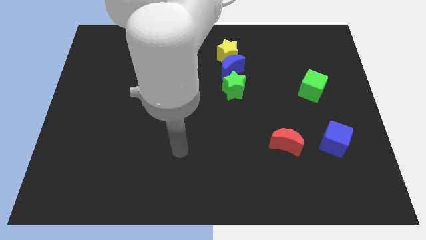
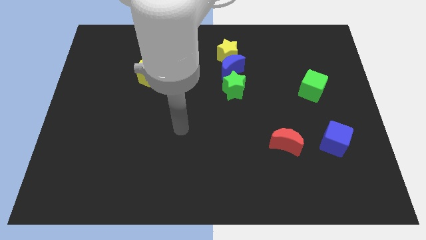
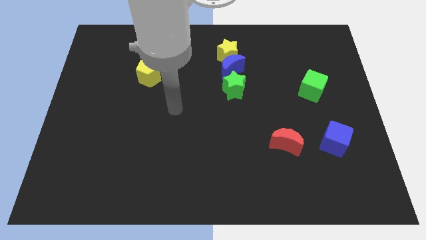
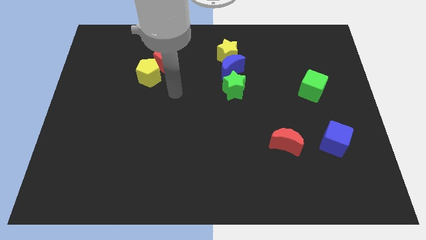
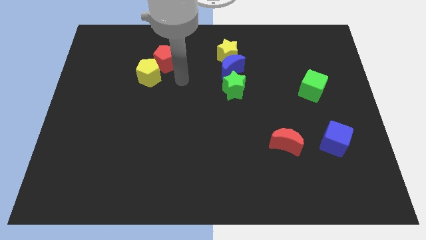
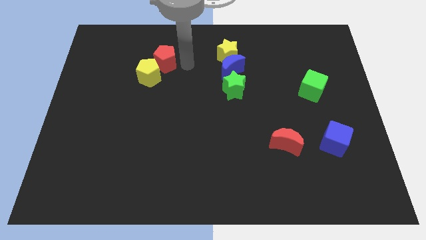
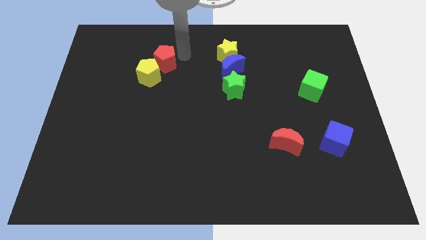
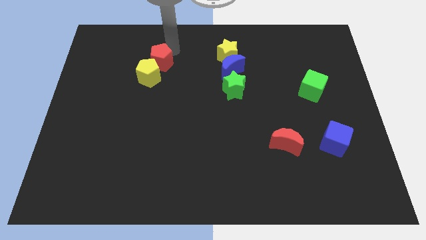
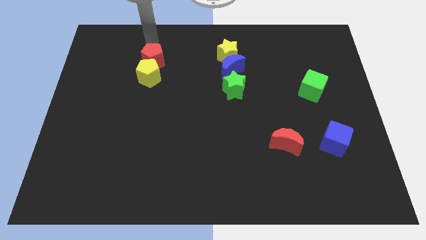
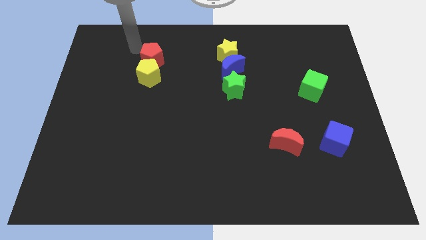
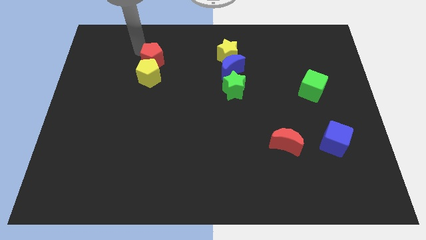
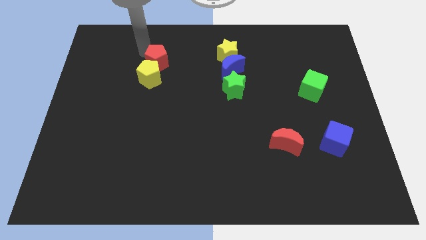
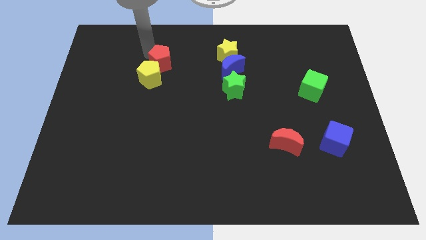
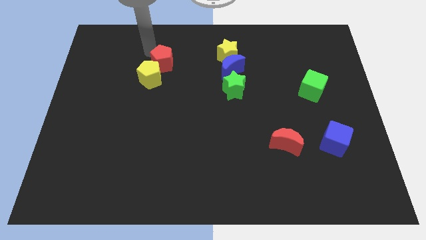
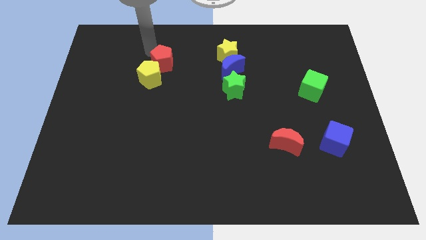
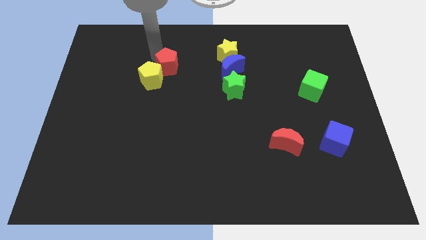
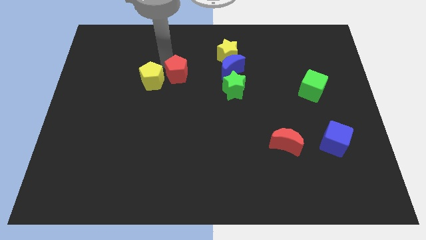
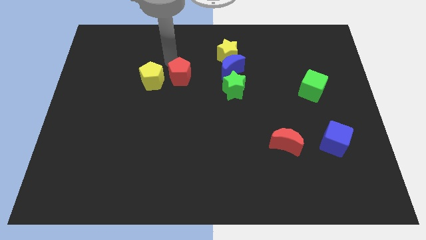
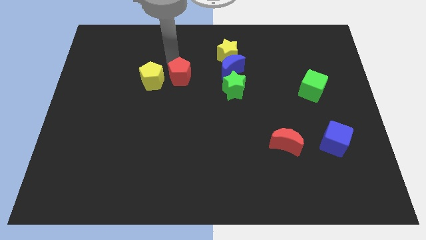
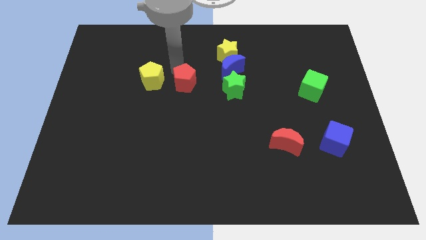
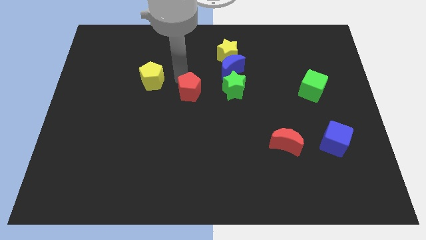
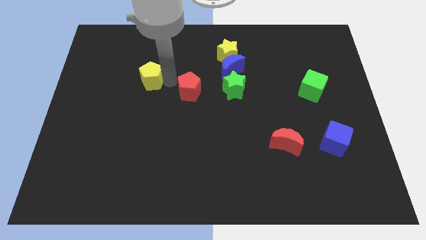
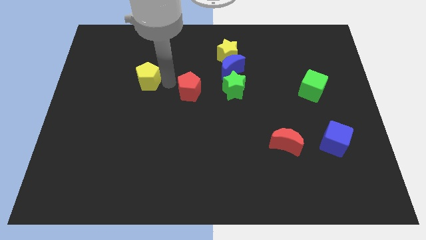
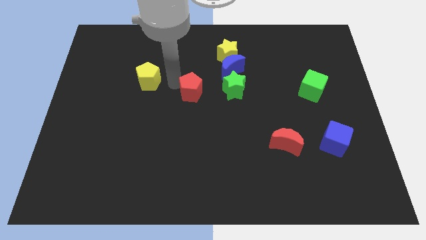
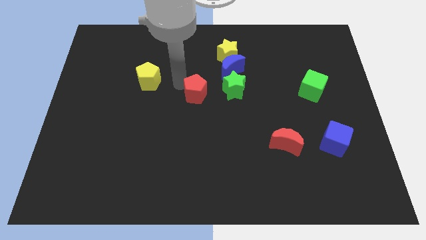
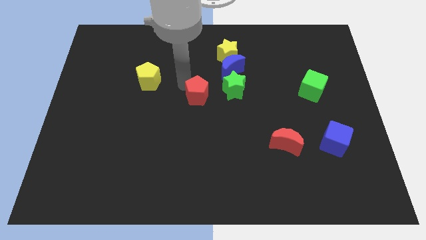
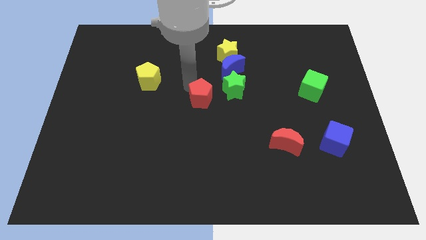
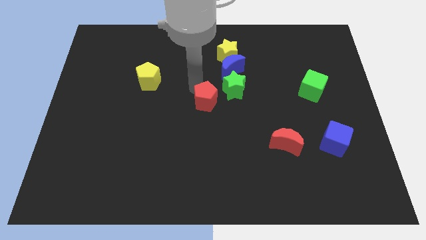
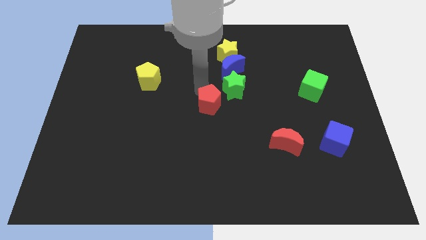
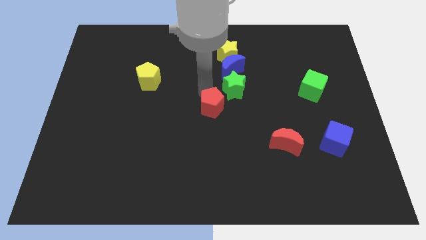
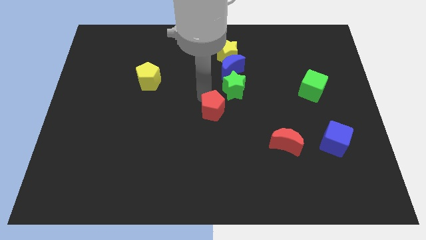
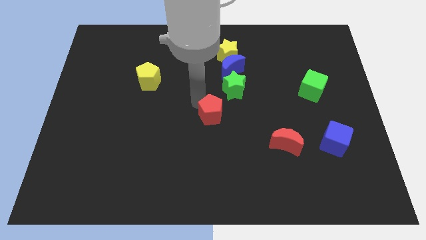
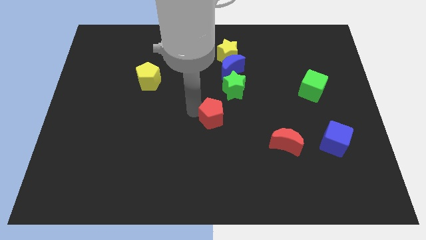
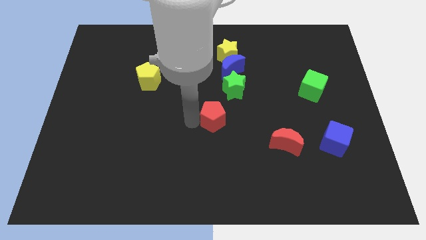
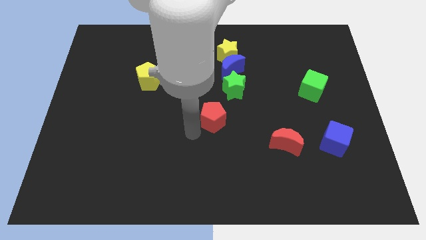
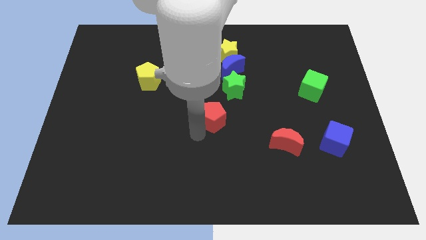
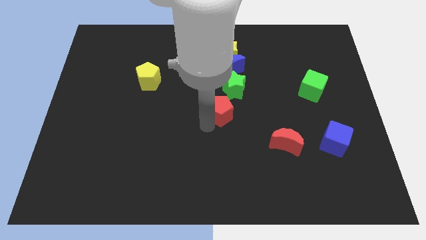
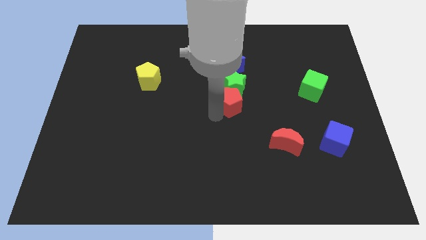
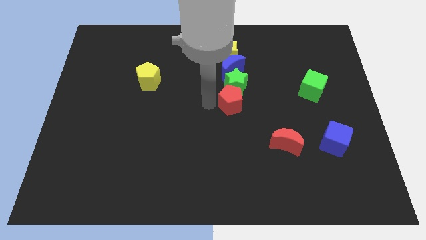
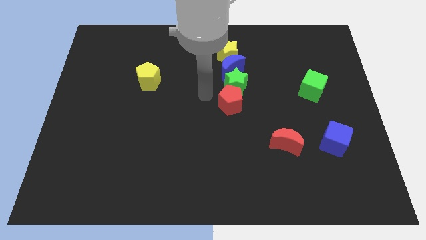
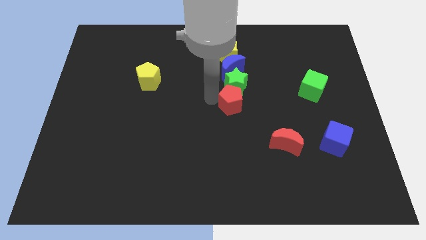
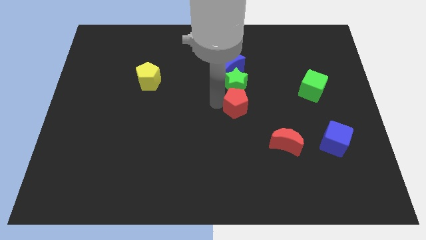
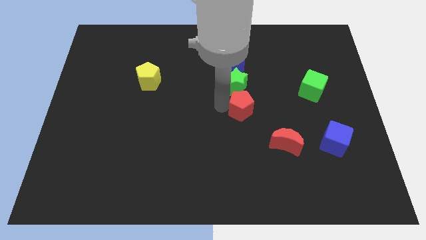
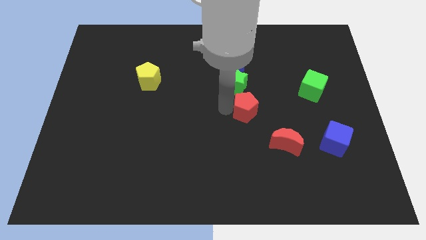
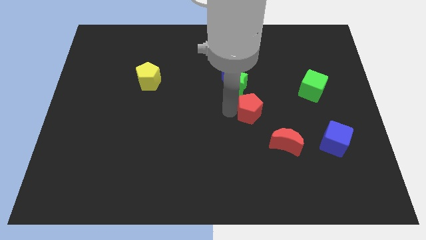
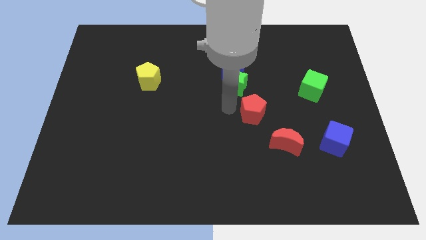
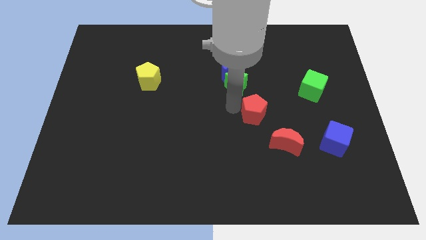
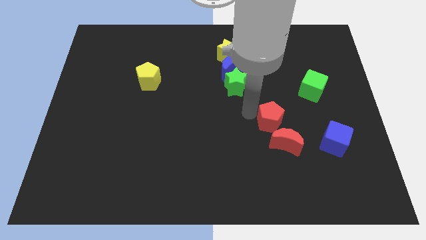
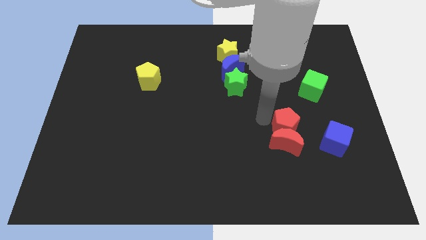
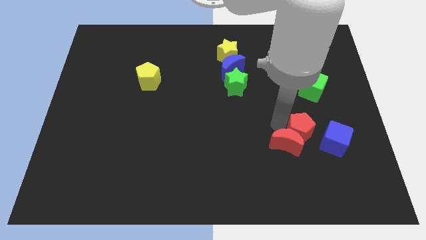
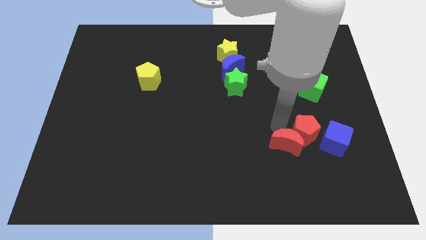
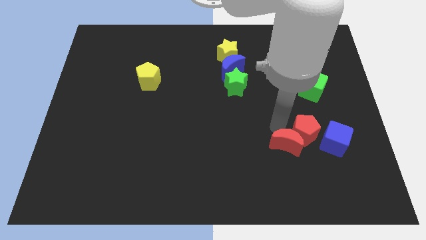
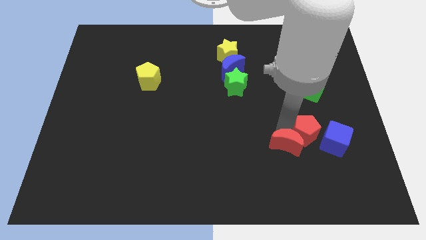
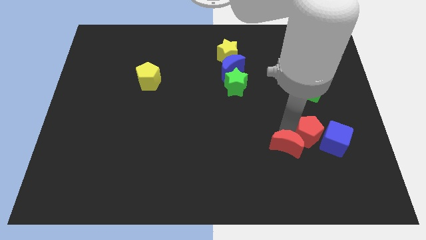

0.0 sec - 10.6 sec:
push the red pentagon close to the blue cube

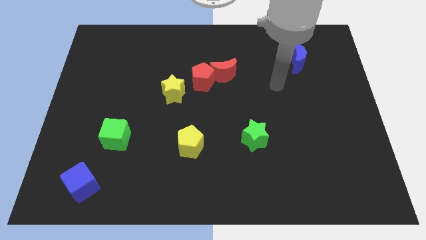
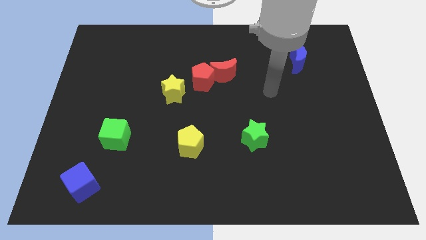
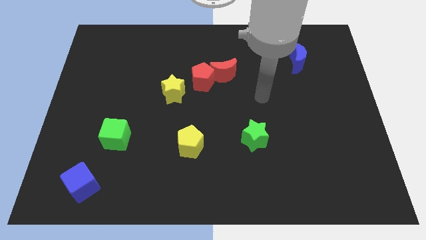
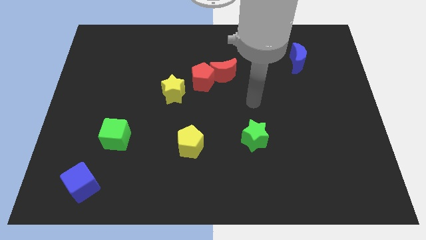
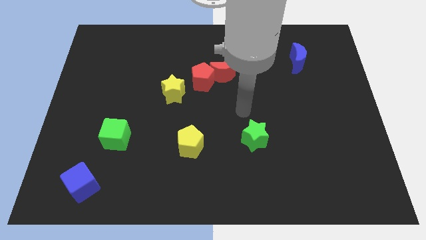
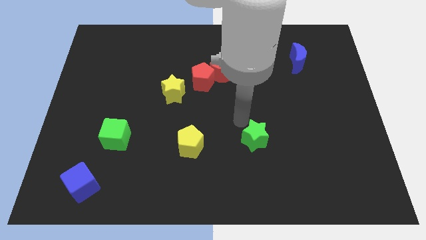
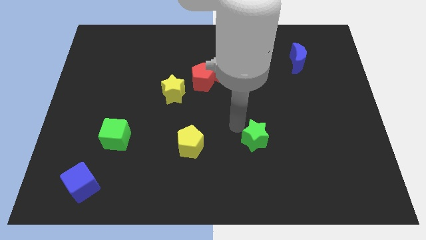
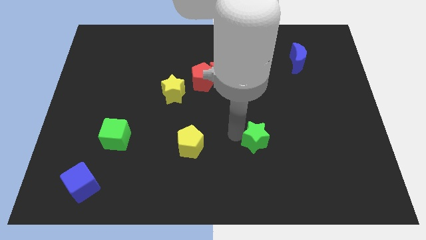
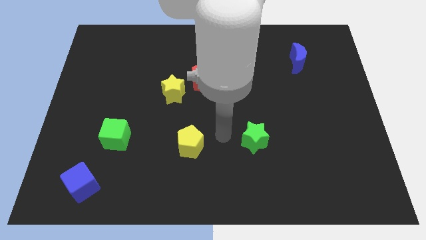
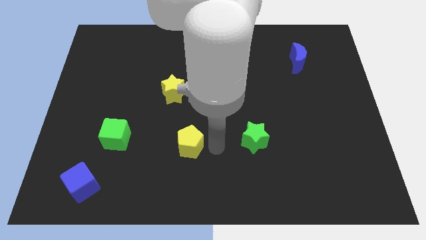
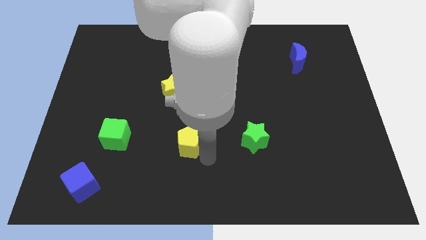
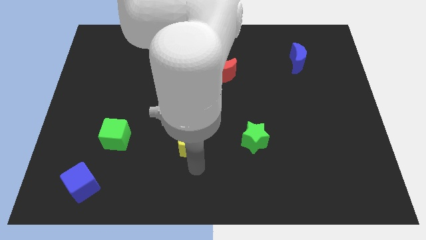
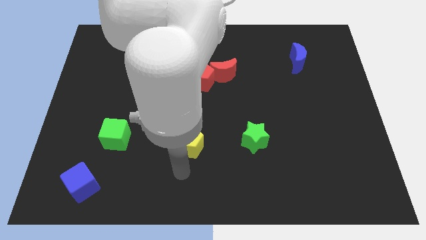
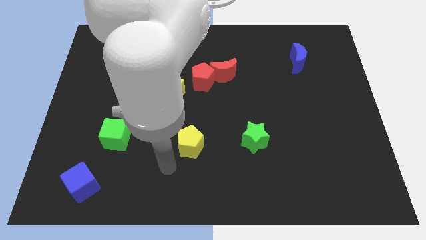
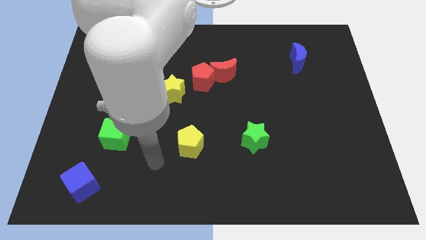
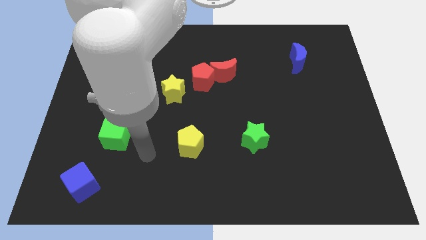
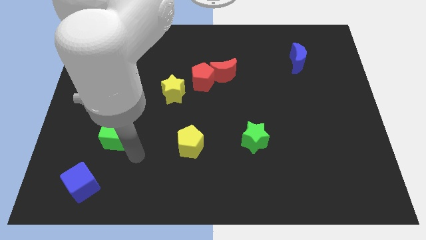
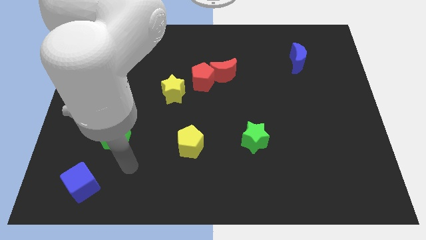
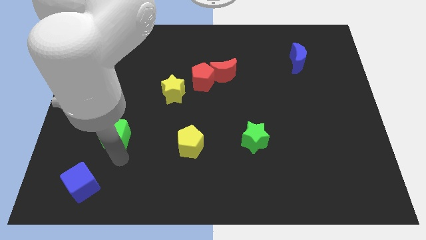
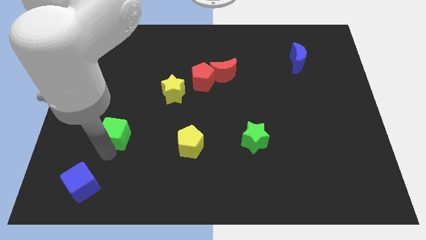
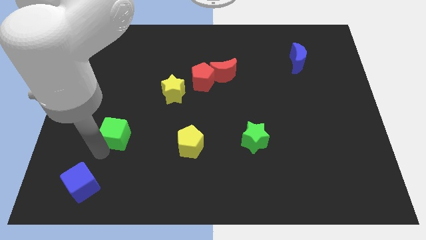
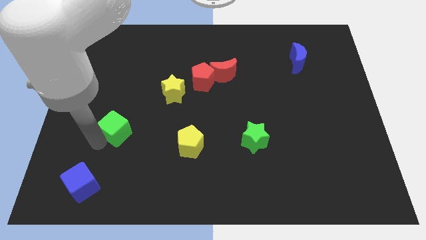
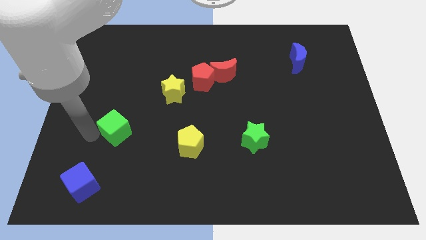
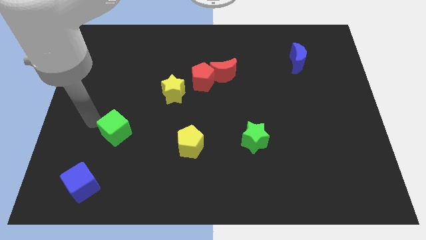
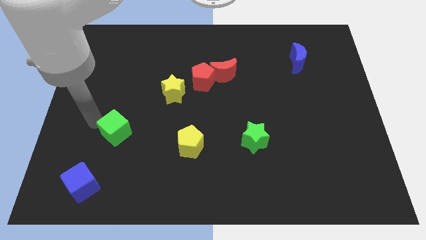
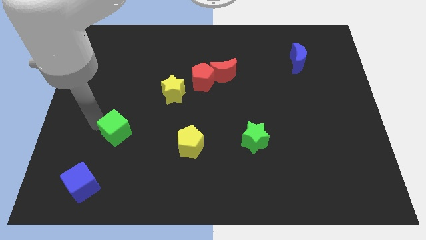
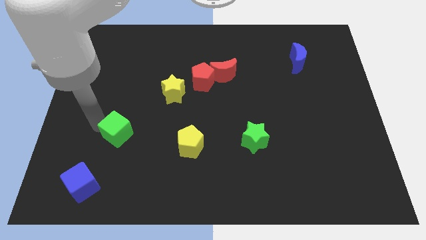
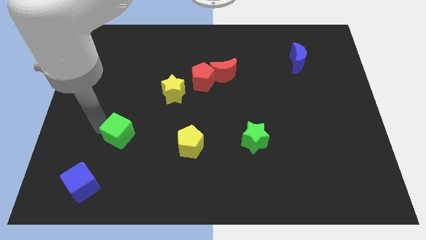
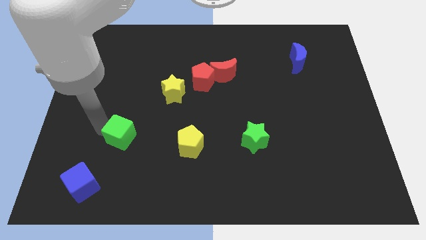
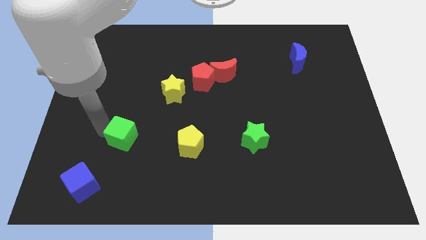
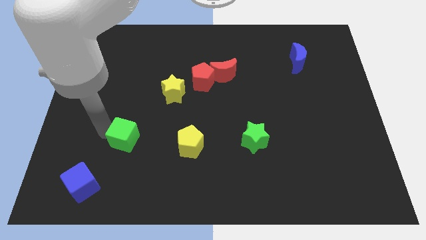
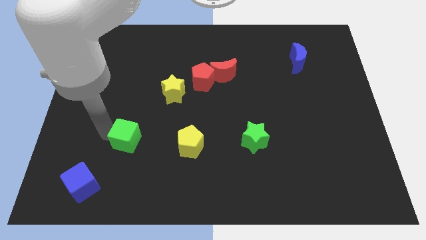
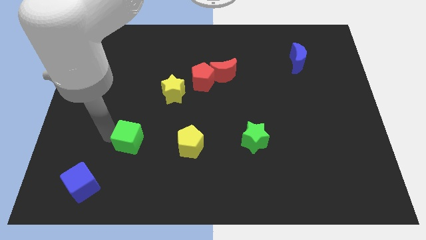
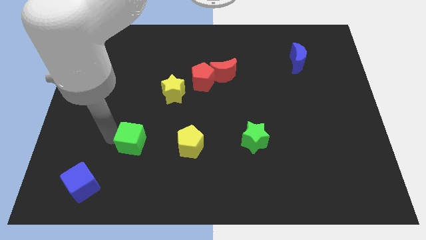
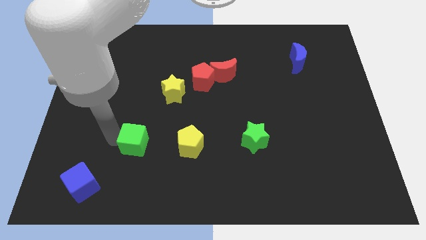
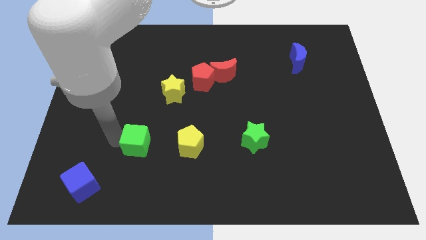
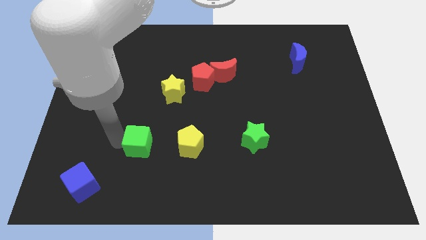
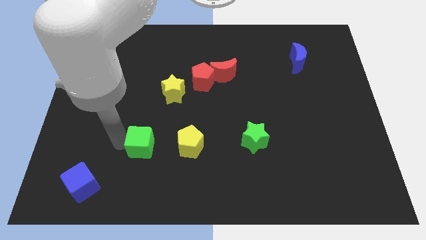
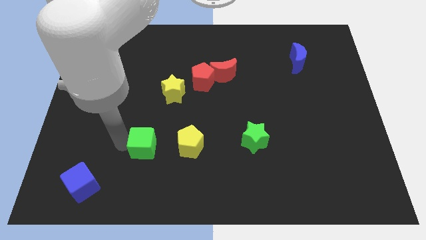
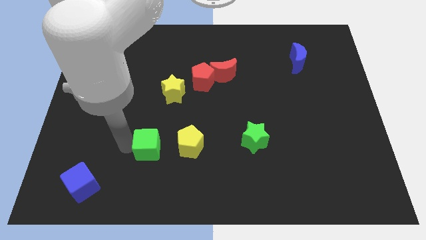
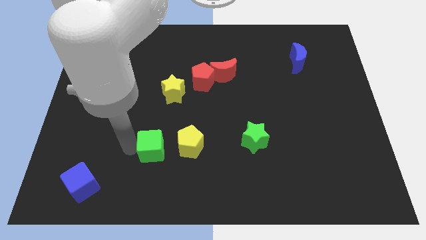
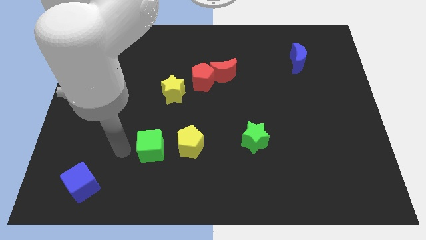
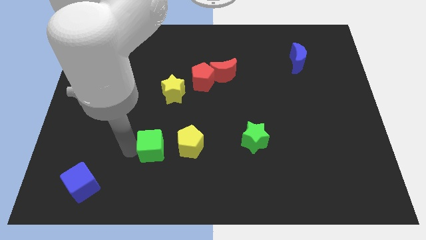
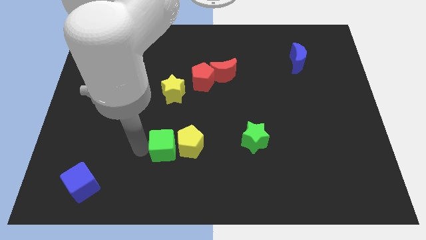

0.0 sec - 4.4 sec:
move the green cube towards the yellow pentagon
